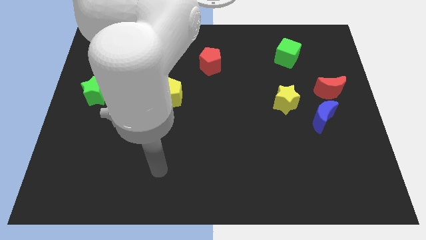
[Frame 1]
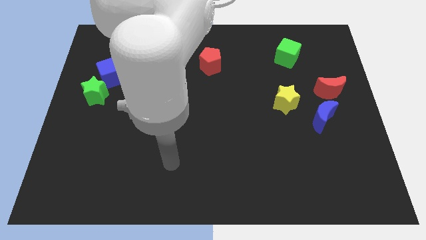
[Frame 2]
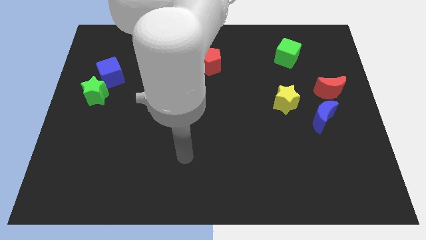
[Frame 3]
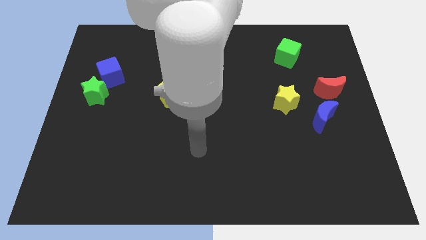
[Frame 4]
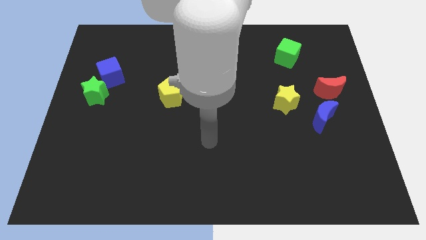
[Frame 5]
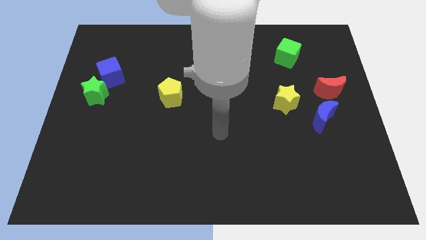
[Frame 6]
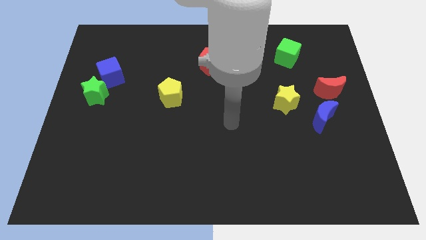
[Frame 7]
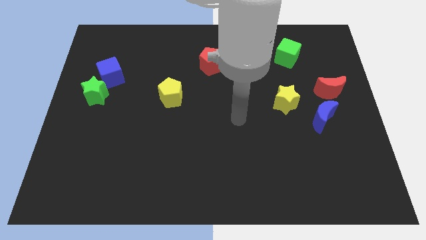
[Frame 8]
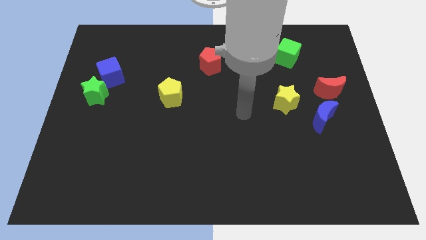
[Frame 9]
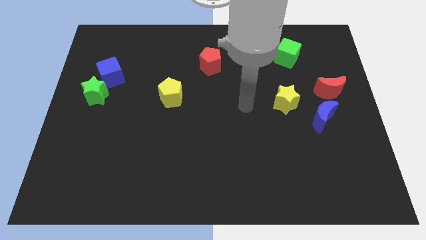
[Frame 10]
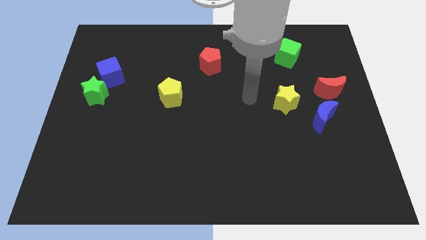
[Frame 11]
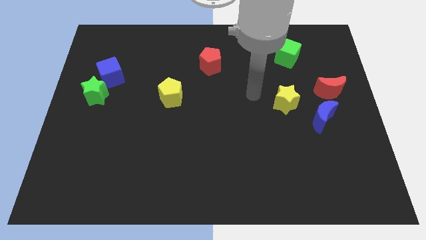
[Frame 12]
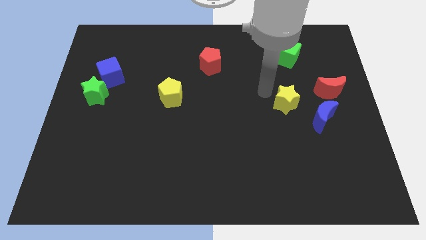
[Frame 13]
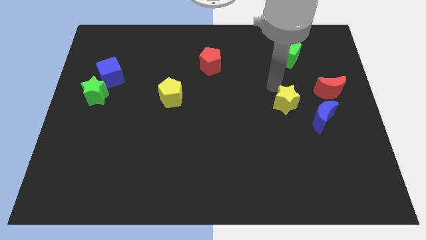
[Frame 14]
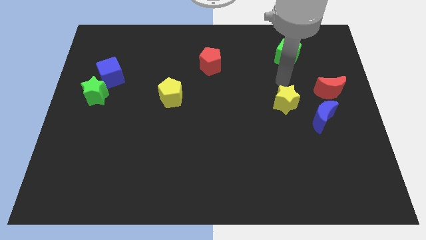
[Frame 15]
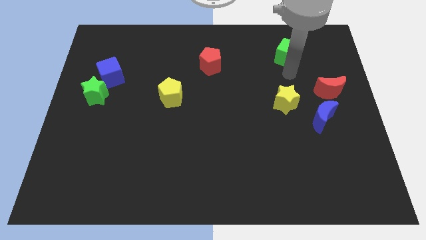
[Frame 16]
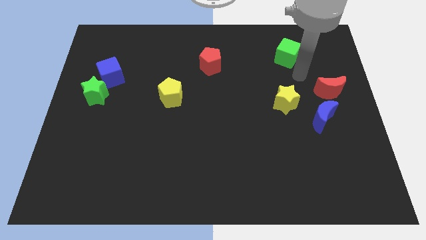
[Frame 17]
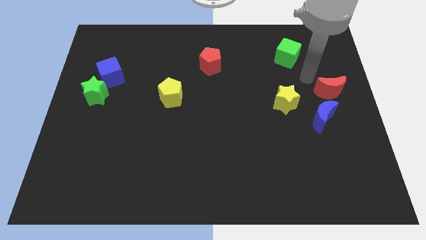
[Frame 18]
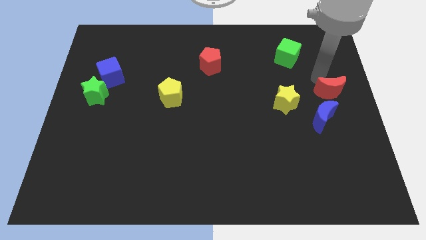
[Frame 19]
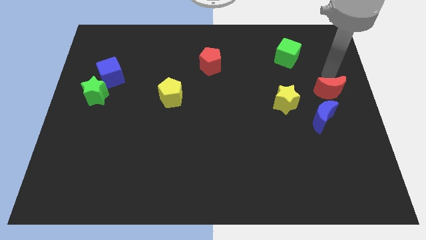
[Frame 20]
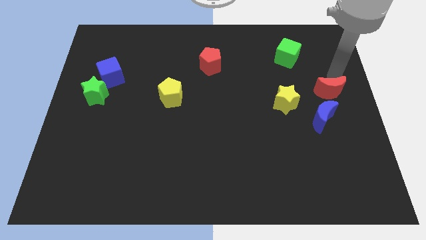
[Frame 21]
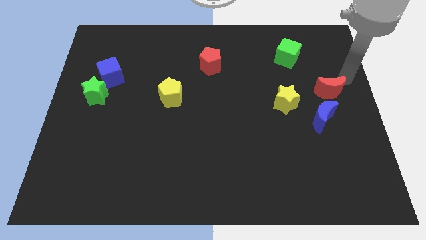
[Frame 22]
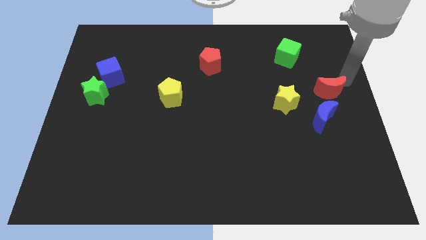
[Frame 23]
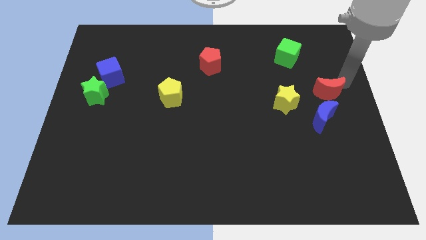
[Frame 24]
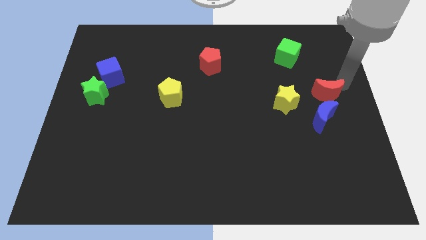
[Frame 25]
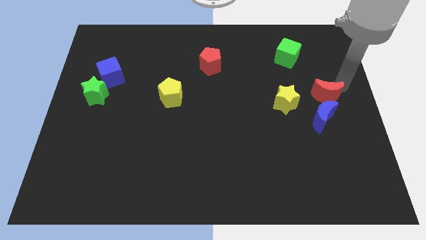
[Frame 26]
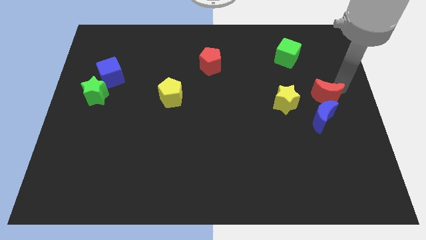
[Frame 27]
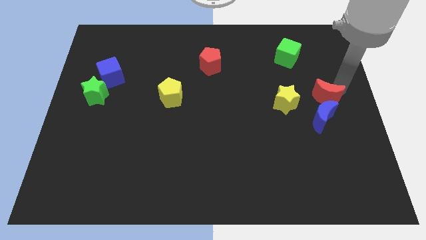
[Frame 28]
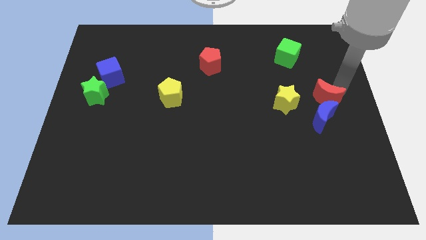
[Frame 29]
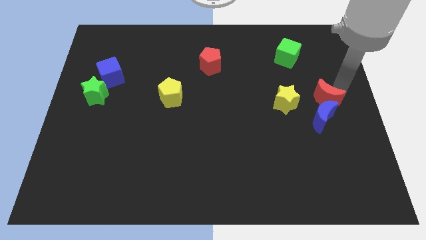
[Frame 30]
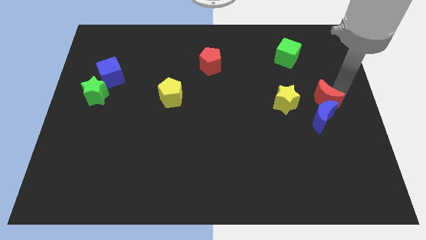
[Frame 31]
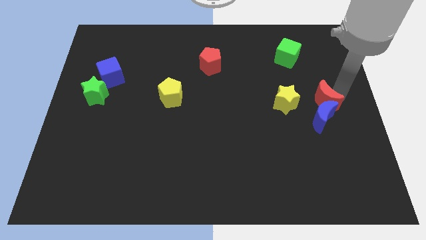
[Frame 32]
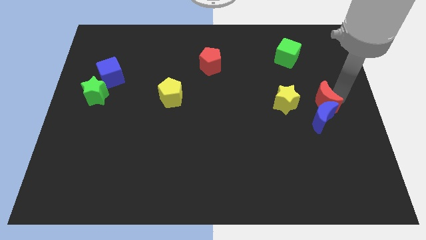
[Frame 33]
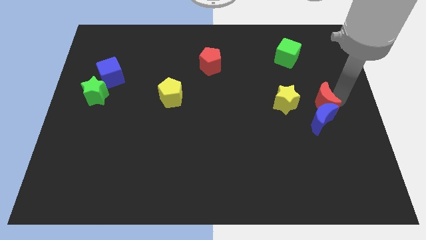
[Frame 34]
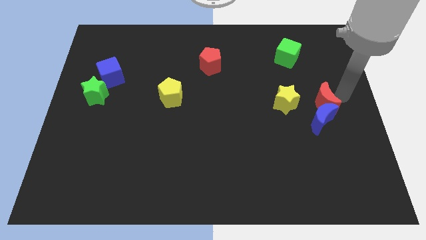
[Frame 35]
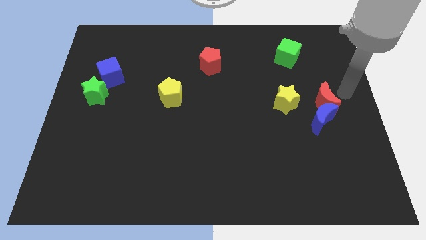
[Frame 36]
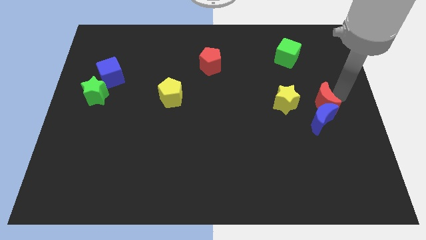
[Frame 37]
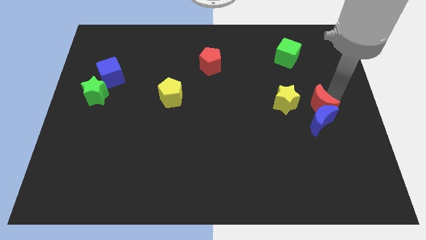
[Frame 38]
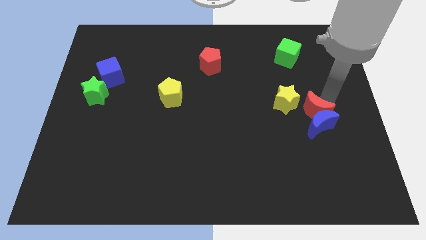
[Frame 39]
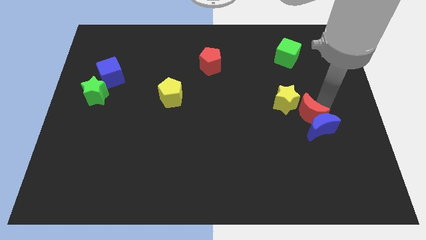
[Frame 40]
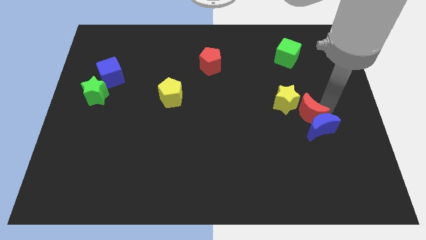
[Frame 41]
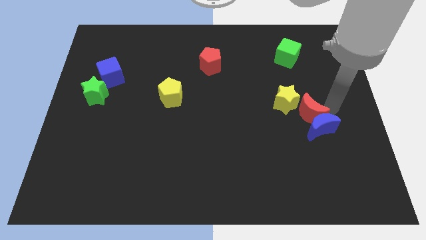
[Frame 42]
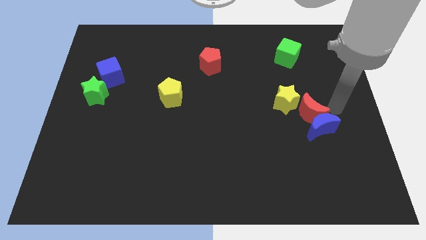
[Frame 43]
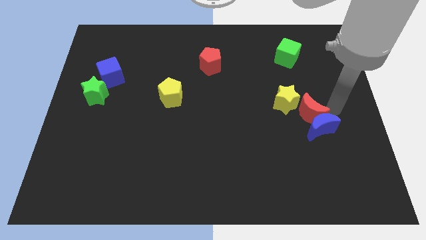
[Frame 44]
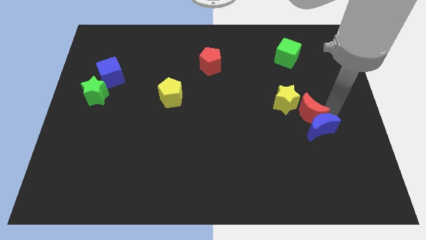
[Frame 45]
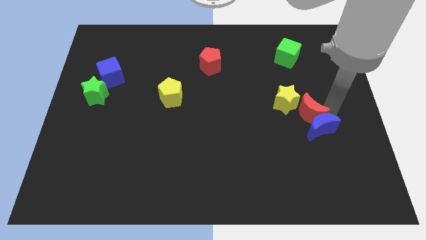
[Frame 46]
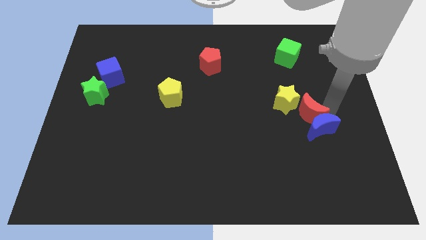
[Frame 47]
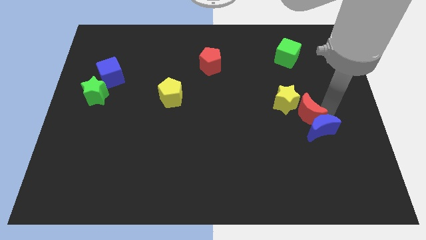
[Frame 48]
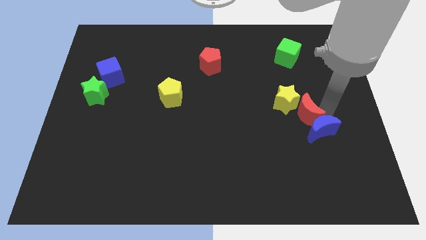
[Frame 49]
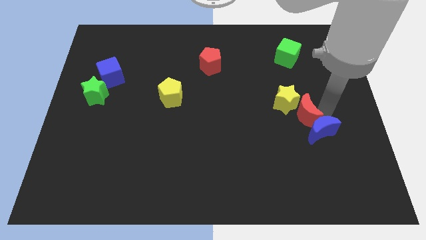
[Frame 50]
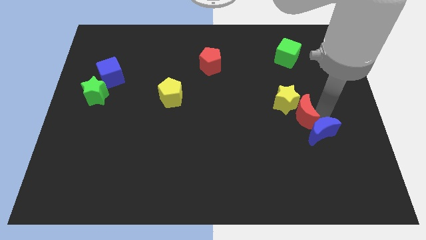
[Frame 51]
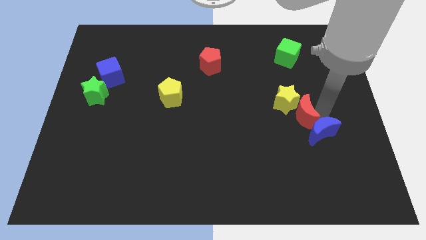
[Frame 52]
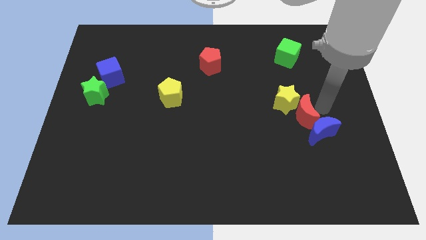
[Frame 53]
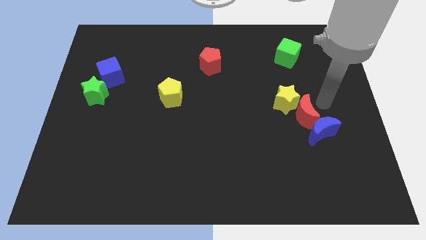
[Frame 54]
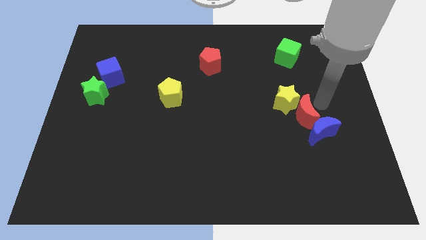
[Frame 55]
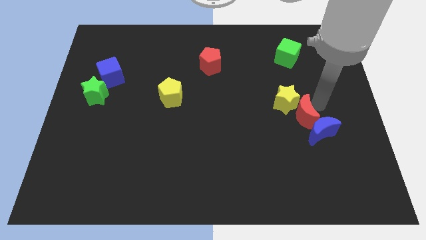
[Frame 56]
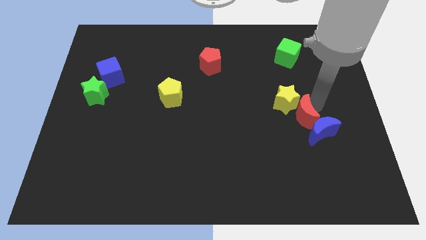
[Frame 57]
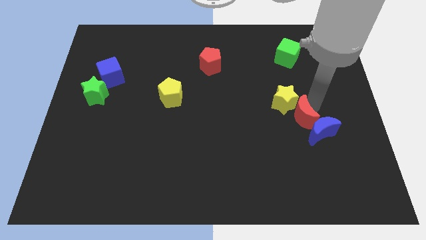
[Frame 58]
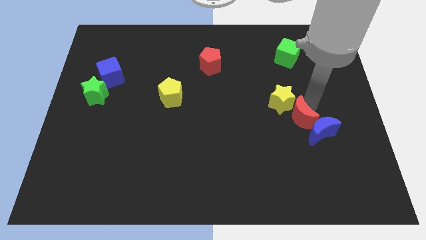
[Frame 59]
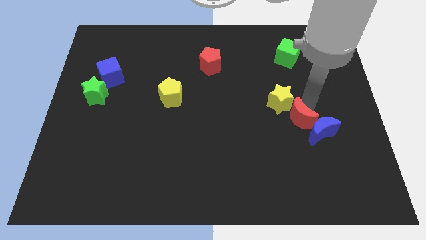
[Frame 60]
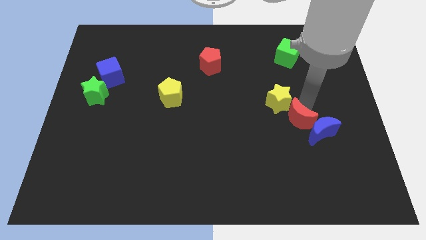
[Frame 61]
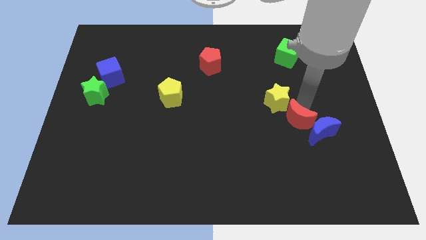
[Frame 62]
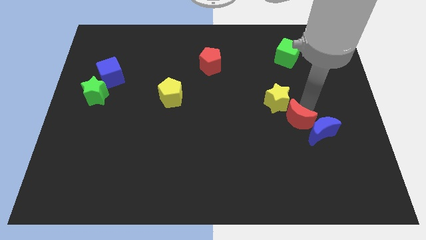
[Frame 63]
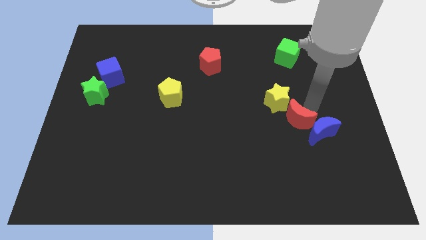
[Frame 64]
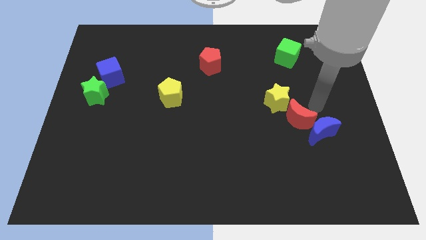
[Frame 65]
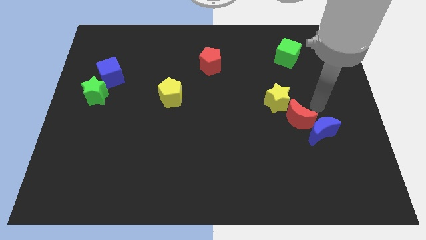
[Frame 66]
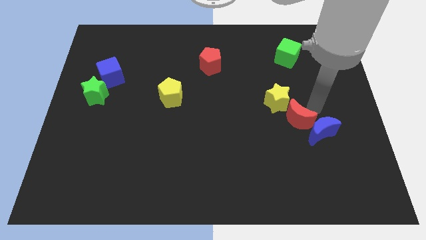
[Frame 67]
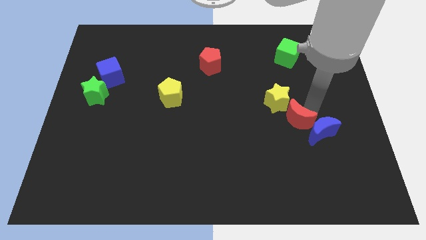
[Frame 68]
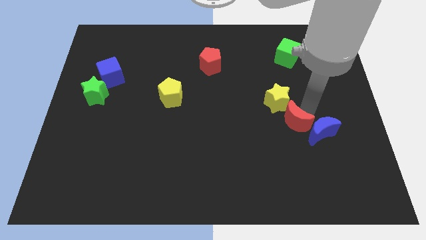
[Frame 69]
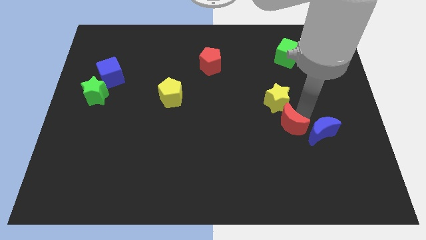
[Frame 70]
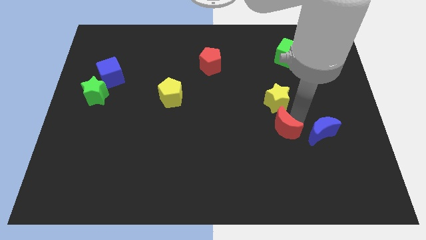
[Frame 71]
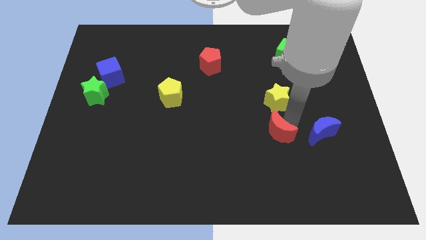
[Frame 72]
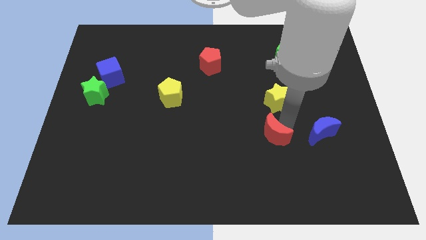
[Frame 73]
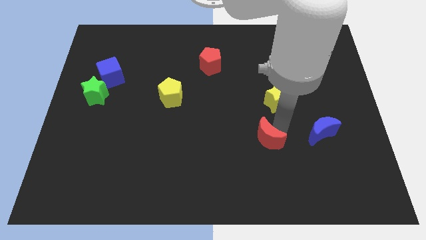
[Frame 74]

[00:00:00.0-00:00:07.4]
move the red moon down and then to the left

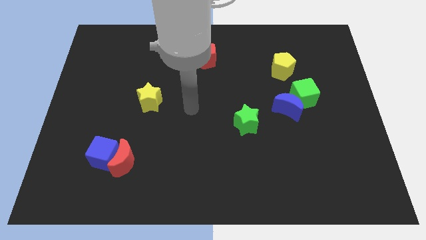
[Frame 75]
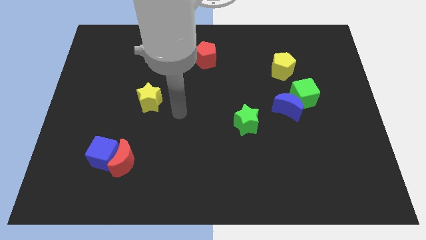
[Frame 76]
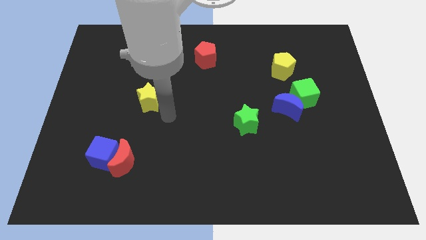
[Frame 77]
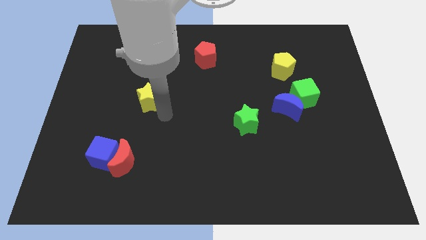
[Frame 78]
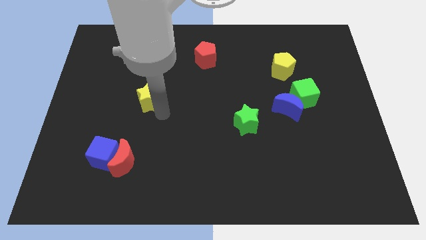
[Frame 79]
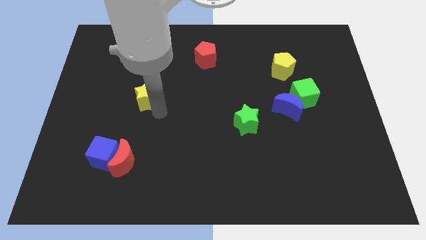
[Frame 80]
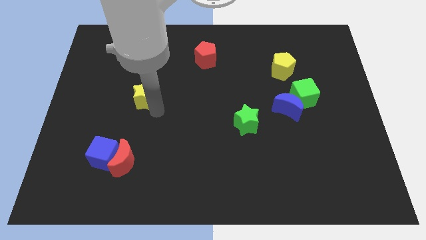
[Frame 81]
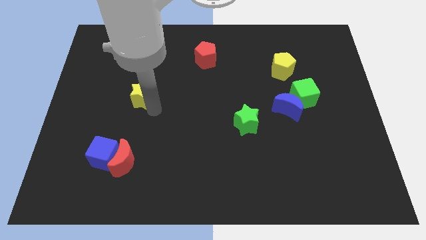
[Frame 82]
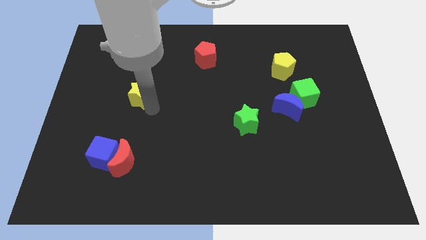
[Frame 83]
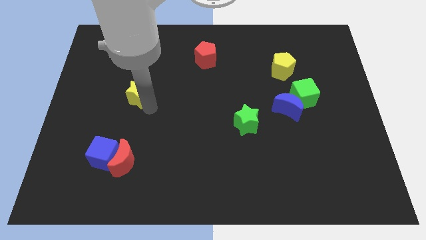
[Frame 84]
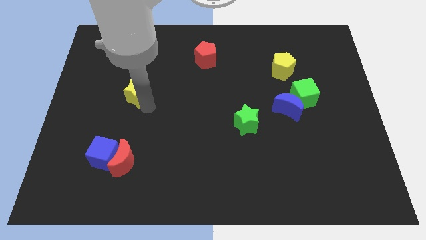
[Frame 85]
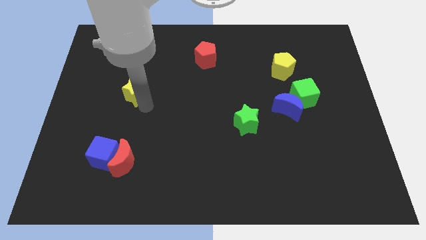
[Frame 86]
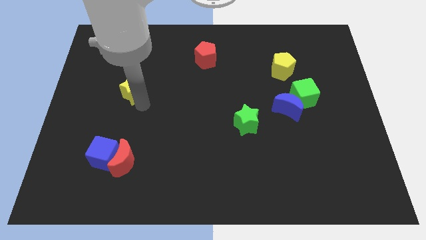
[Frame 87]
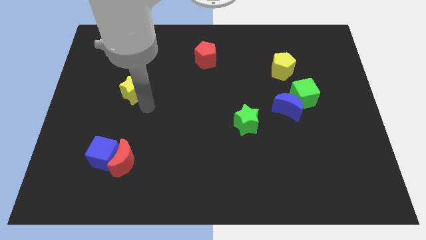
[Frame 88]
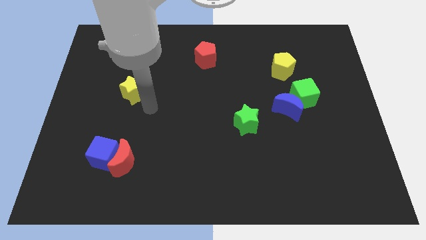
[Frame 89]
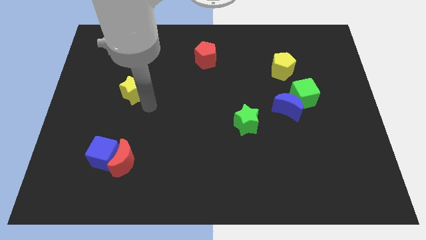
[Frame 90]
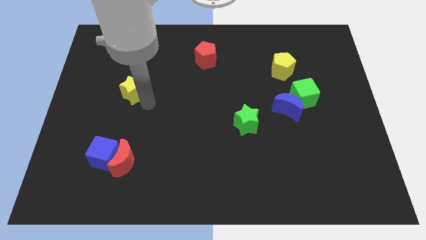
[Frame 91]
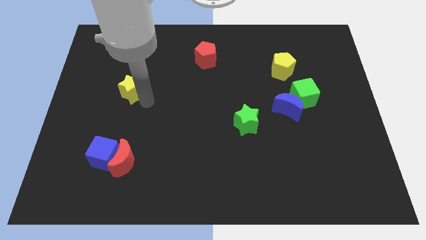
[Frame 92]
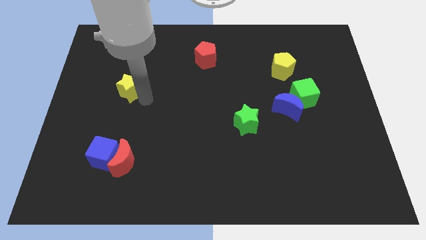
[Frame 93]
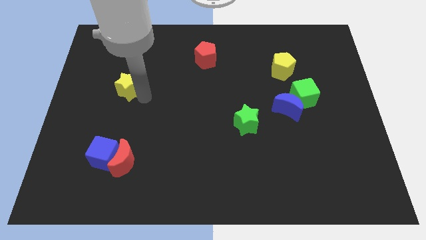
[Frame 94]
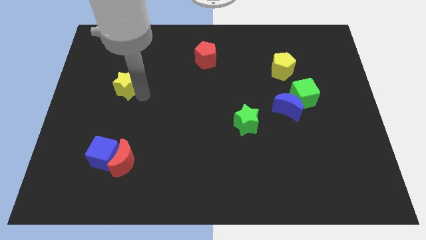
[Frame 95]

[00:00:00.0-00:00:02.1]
push the yellow star a little bit diagonally up and left
